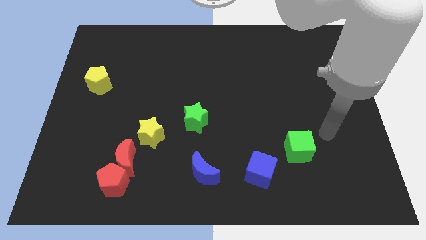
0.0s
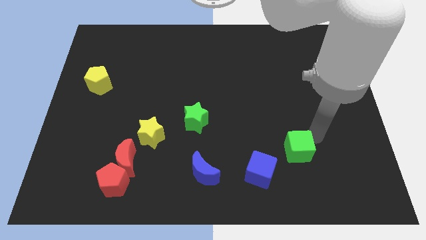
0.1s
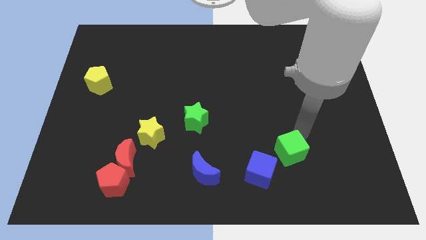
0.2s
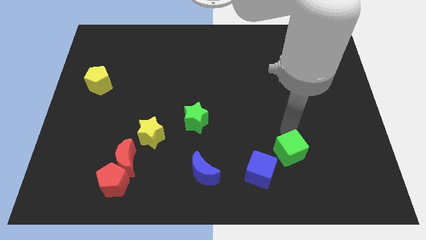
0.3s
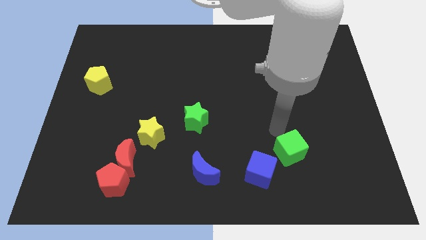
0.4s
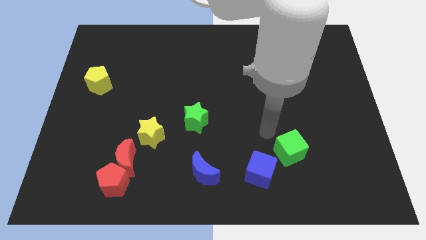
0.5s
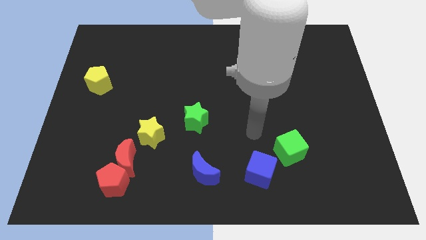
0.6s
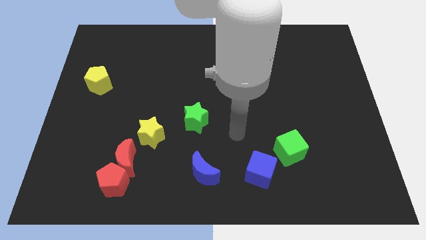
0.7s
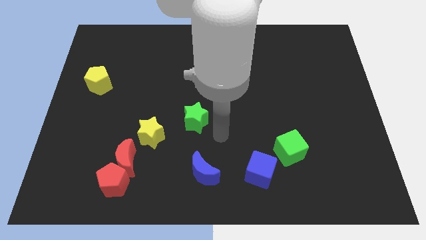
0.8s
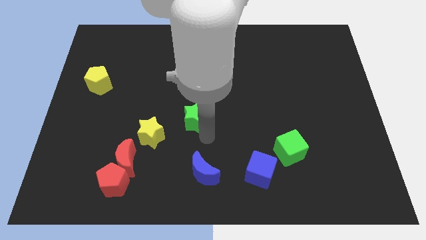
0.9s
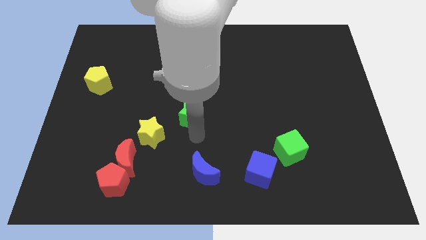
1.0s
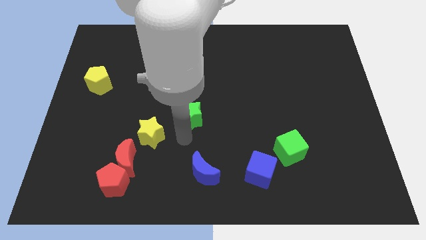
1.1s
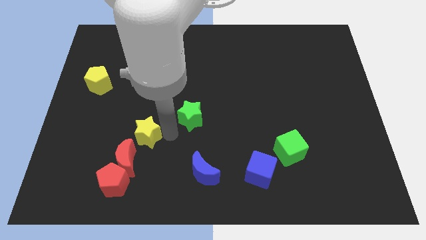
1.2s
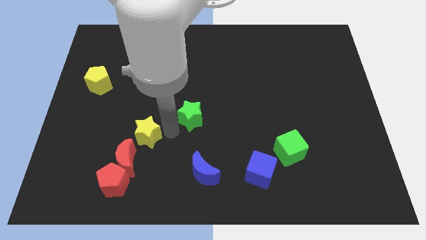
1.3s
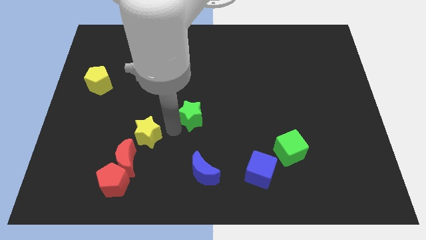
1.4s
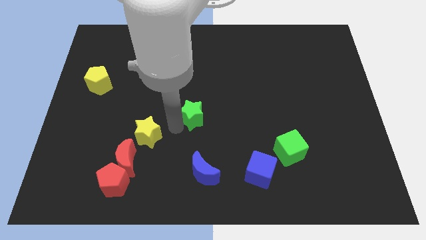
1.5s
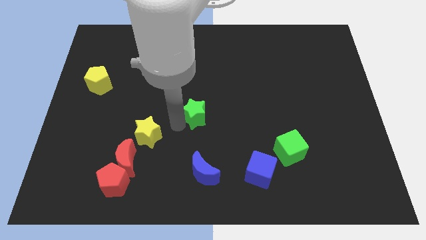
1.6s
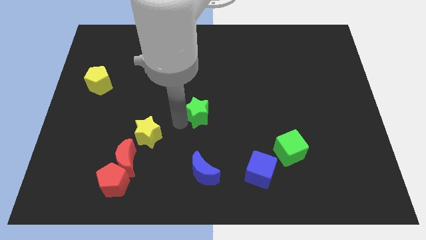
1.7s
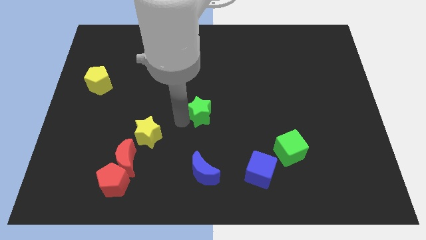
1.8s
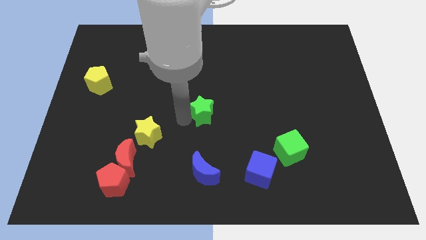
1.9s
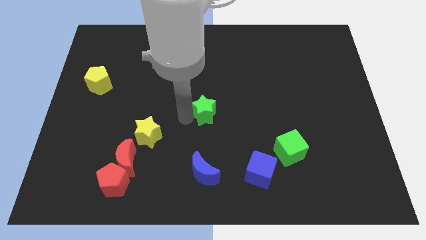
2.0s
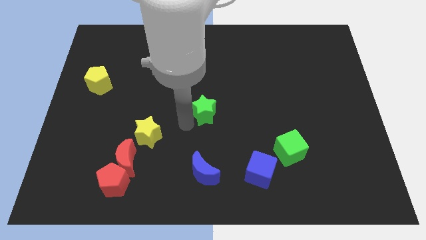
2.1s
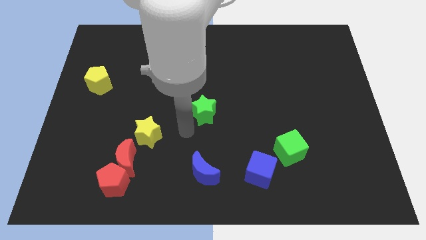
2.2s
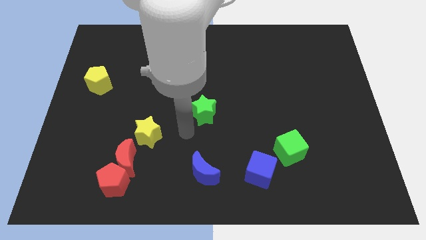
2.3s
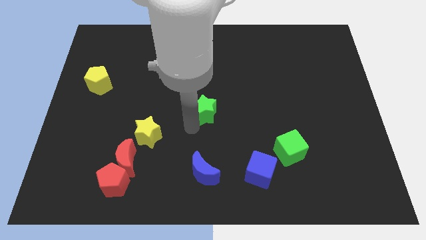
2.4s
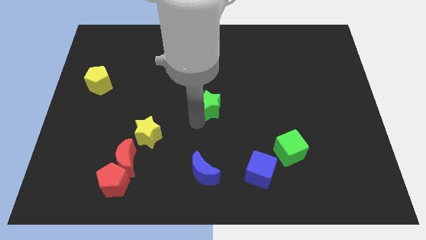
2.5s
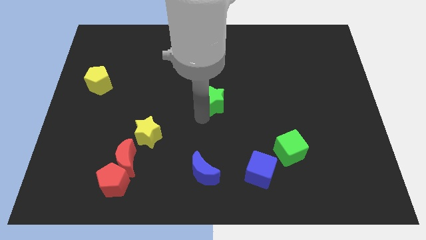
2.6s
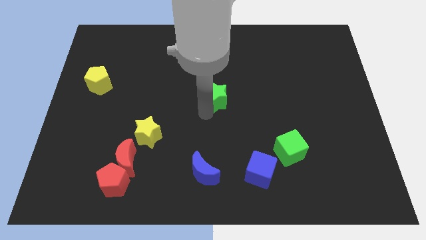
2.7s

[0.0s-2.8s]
slightly slide the green star up and right

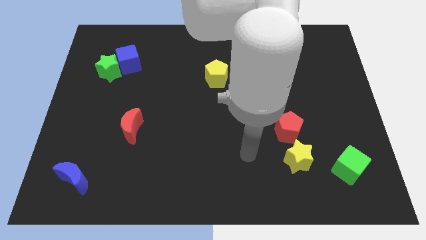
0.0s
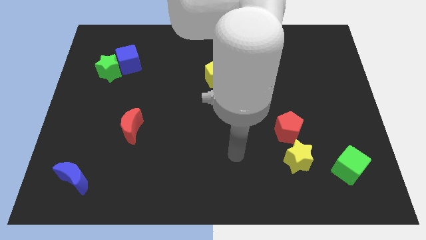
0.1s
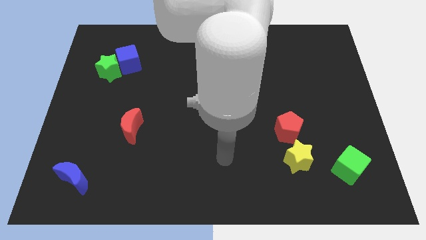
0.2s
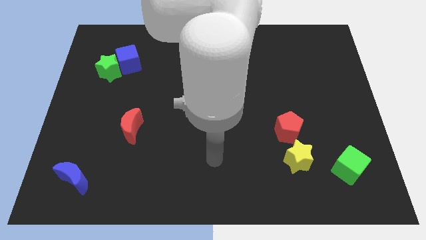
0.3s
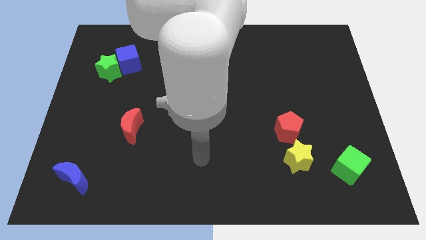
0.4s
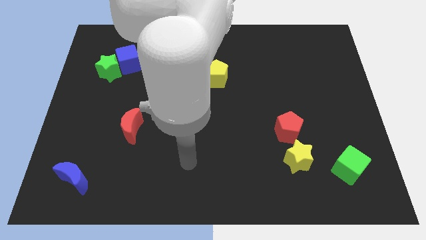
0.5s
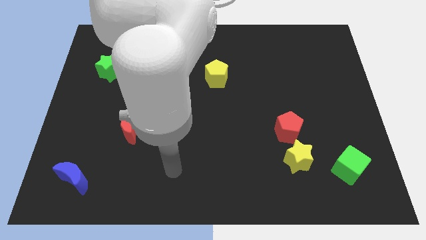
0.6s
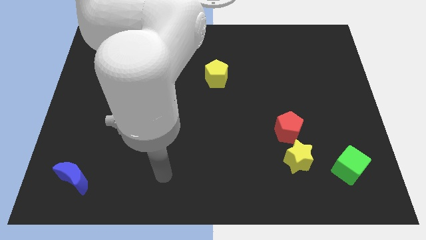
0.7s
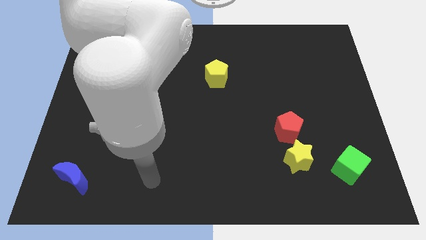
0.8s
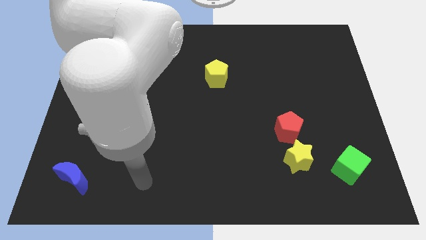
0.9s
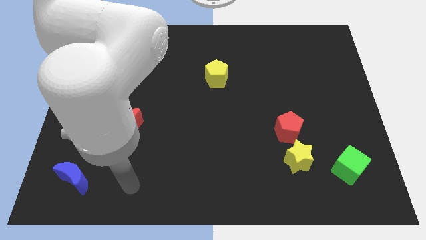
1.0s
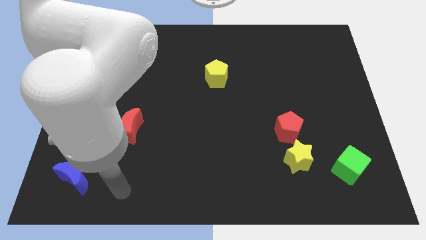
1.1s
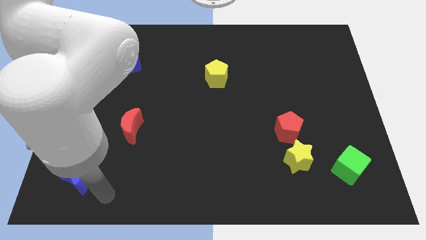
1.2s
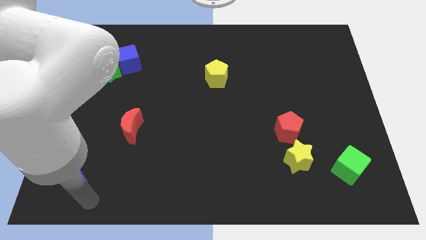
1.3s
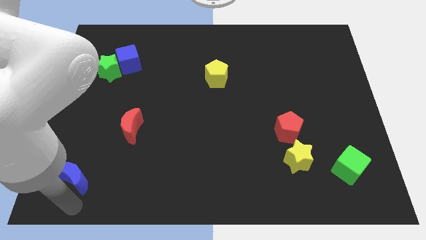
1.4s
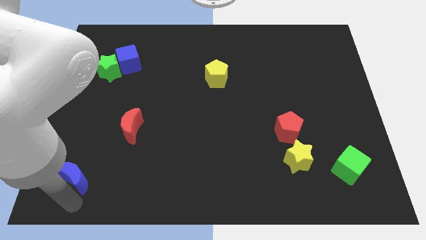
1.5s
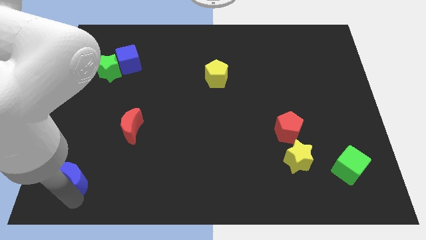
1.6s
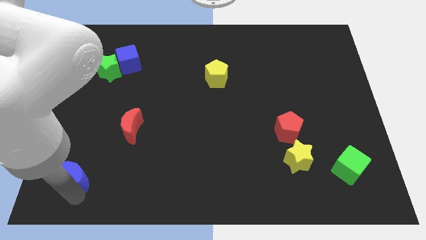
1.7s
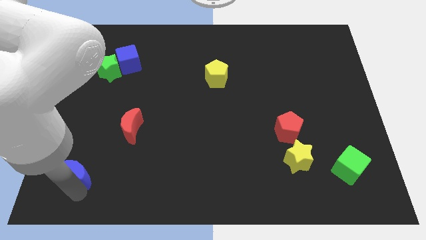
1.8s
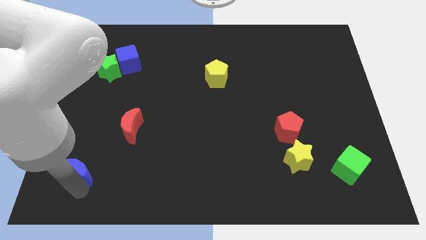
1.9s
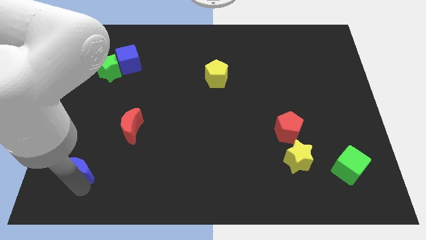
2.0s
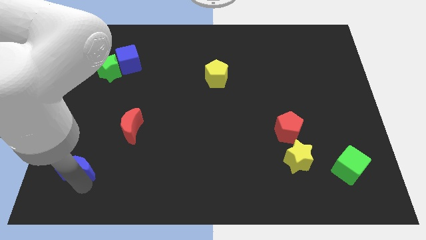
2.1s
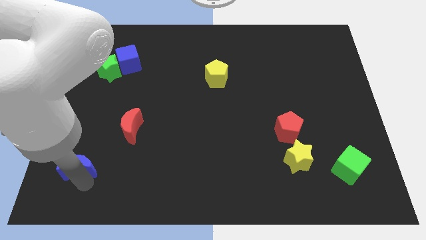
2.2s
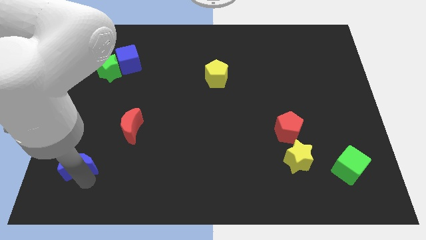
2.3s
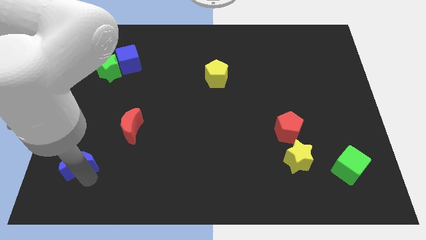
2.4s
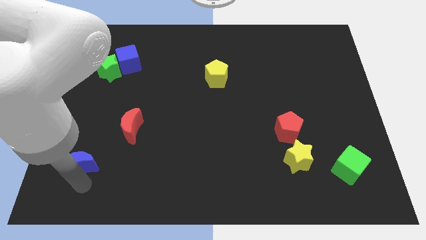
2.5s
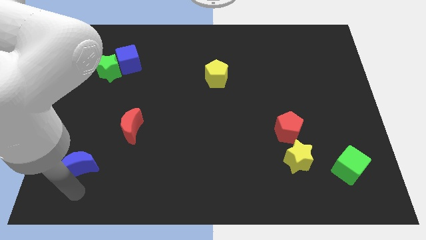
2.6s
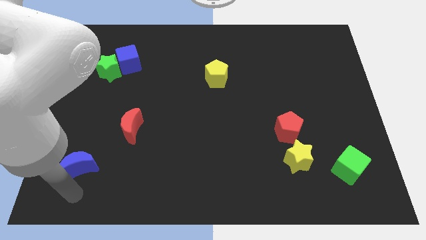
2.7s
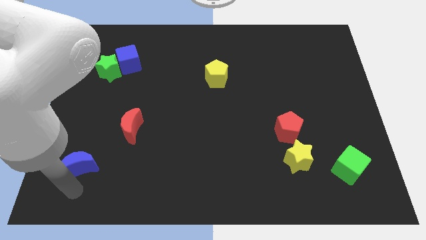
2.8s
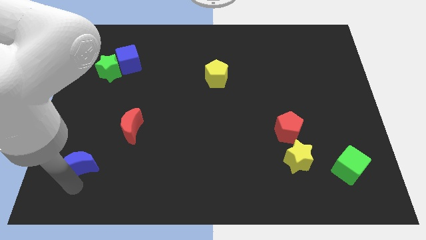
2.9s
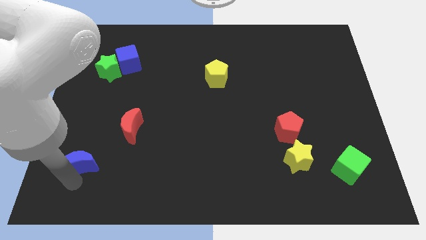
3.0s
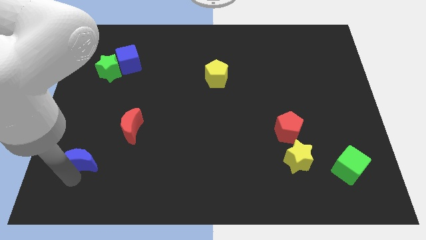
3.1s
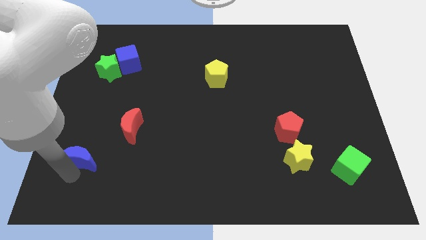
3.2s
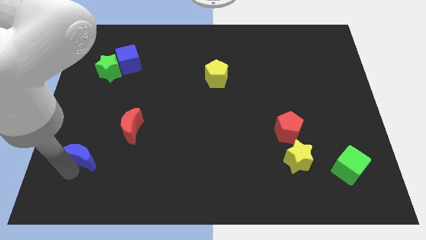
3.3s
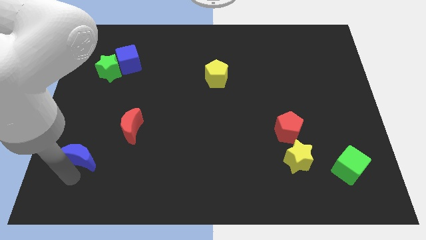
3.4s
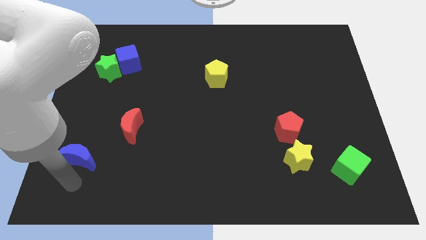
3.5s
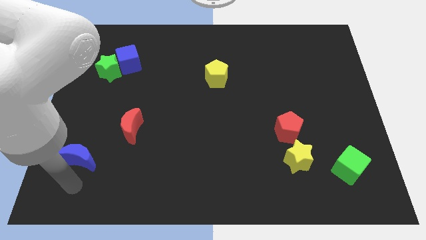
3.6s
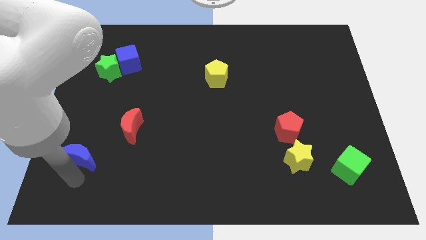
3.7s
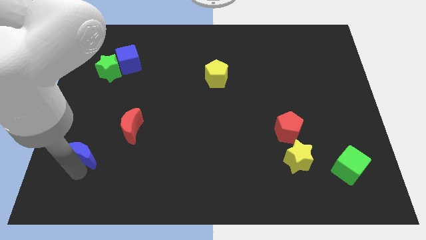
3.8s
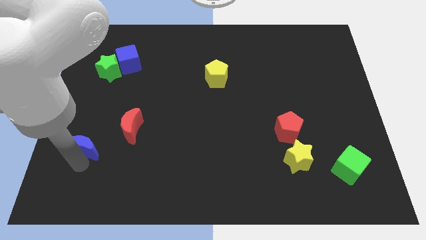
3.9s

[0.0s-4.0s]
slightly move the blue moon upwards

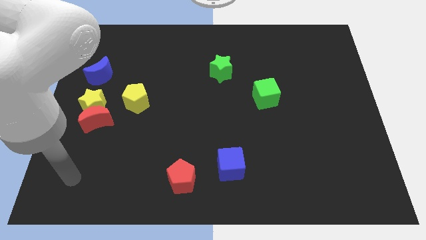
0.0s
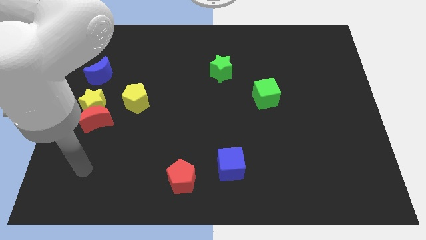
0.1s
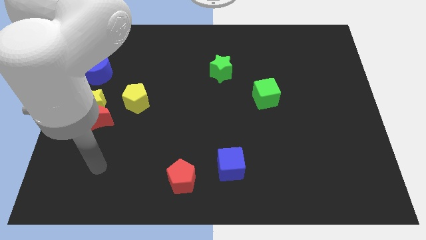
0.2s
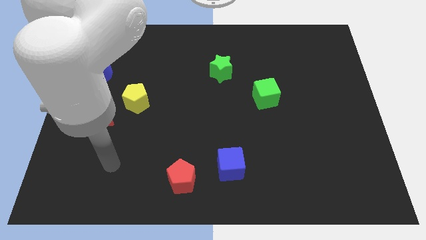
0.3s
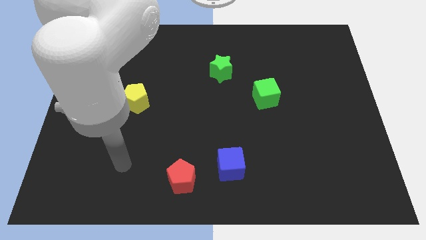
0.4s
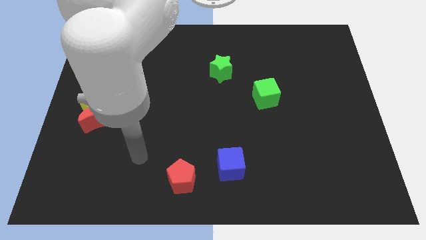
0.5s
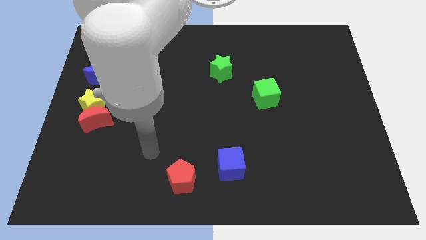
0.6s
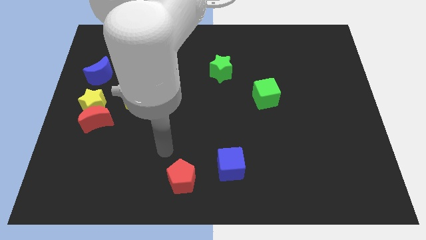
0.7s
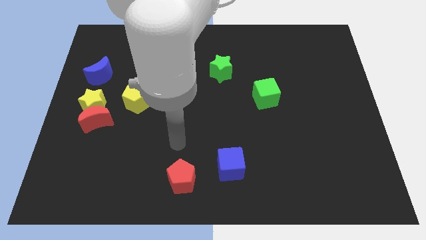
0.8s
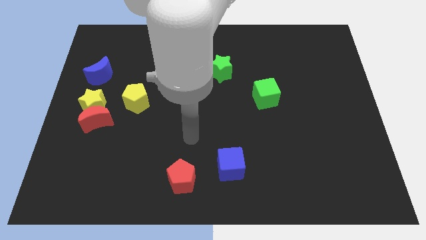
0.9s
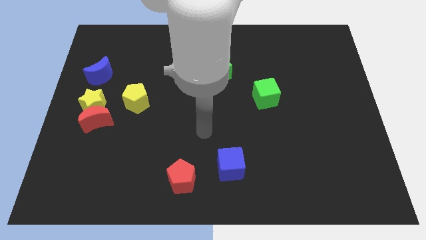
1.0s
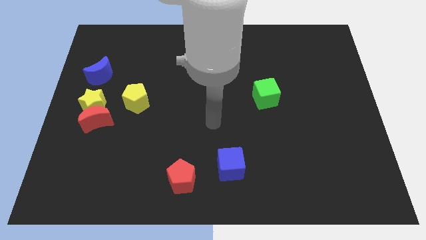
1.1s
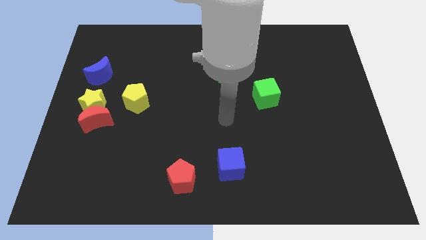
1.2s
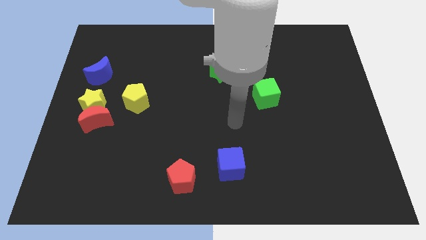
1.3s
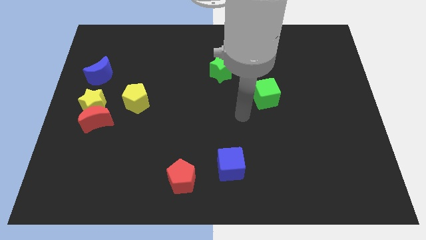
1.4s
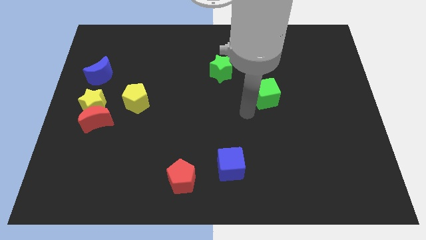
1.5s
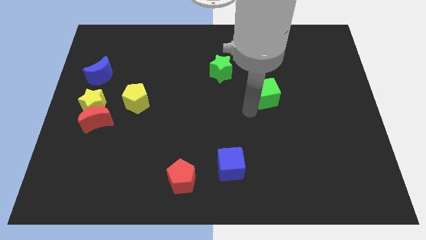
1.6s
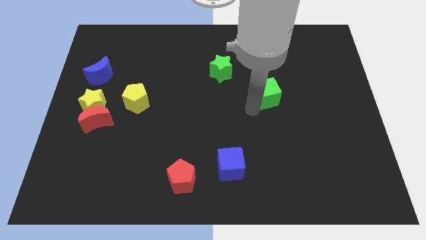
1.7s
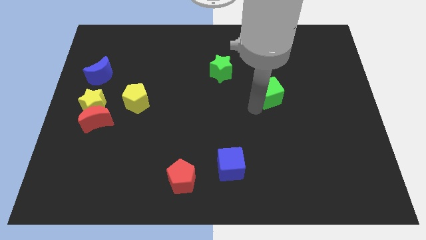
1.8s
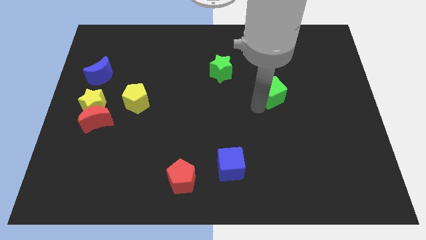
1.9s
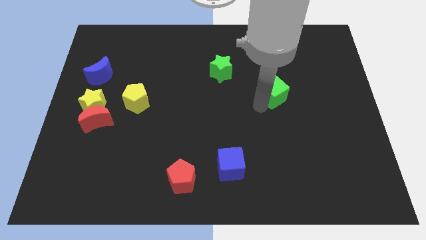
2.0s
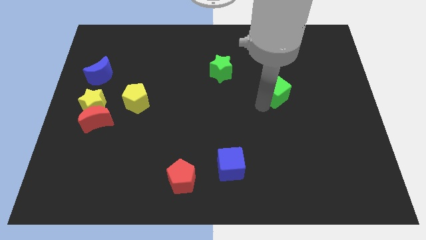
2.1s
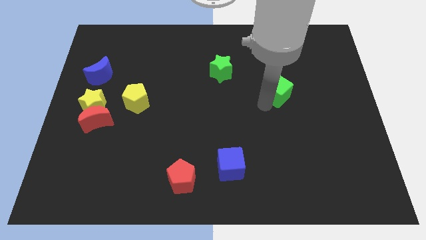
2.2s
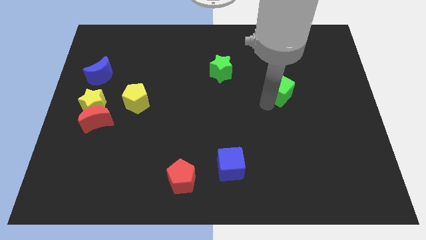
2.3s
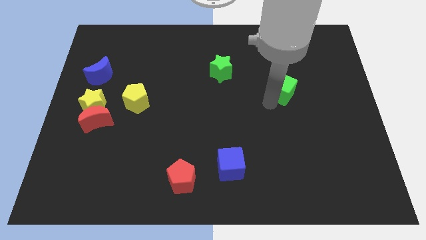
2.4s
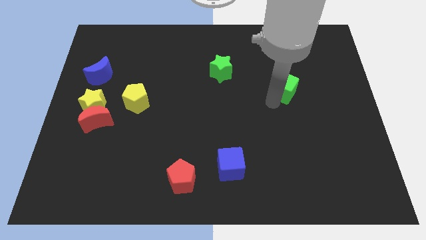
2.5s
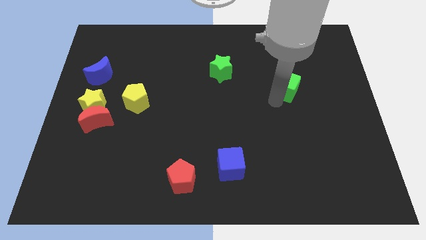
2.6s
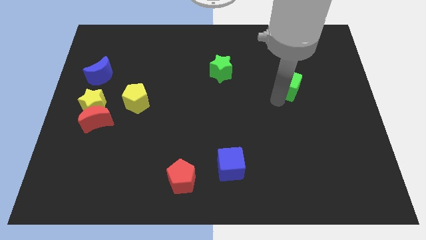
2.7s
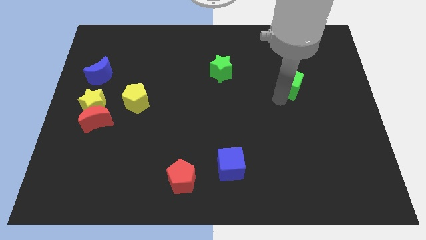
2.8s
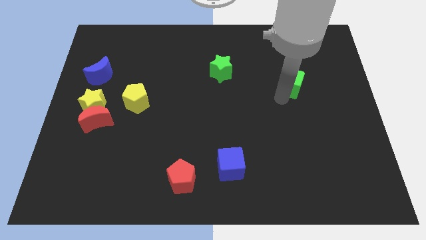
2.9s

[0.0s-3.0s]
push the green cube somewhat upwards and right diagonally
